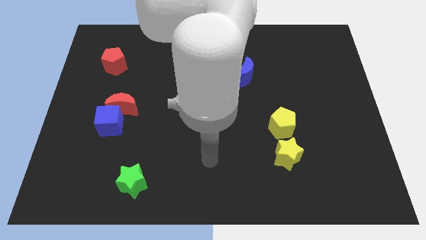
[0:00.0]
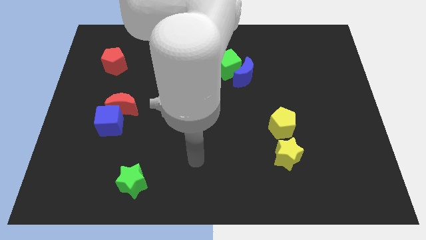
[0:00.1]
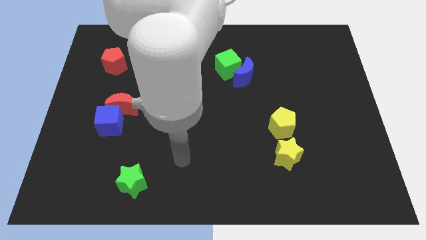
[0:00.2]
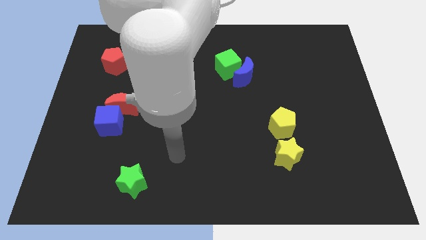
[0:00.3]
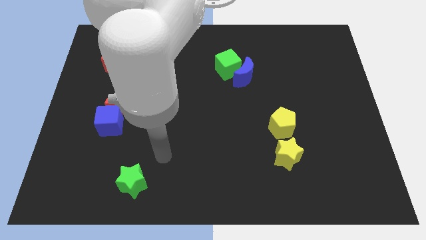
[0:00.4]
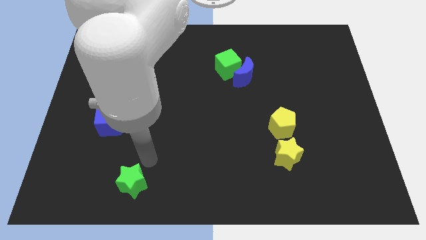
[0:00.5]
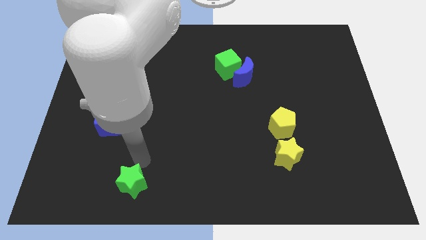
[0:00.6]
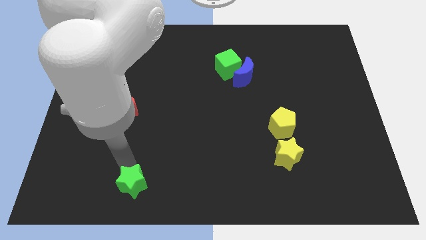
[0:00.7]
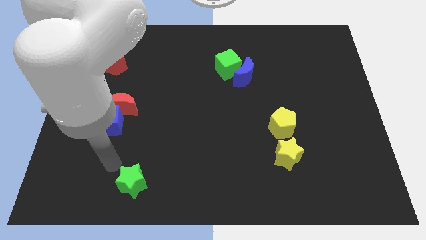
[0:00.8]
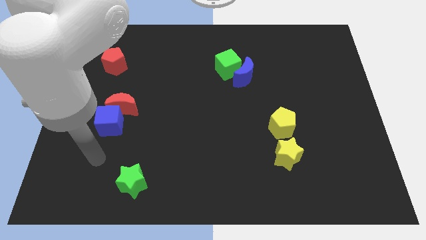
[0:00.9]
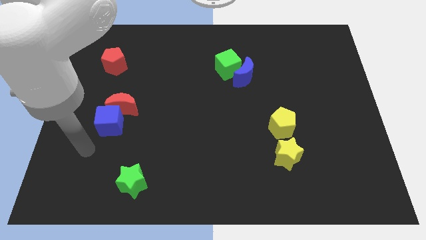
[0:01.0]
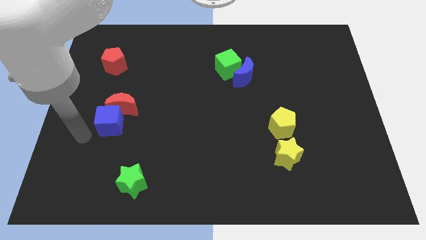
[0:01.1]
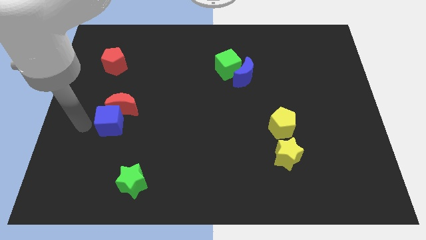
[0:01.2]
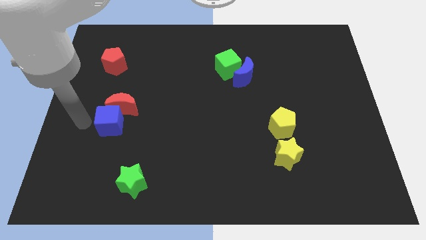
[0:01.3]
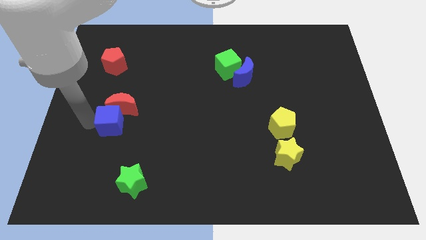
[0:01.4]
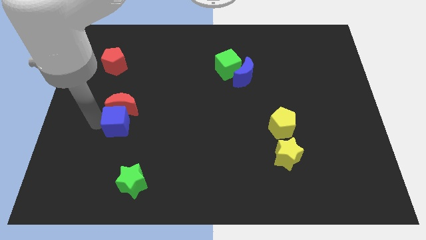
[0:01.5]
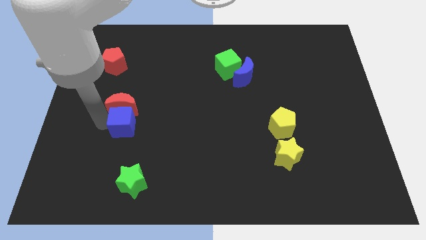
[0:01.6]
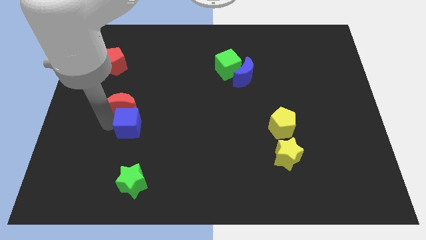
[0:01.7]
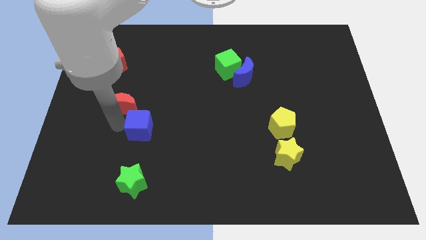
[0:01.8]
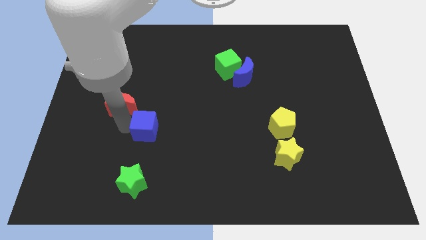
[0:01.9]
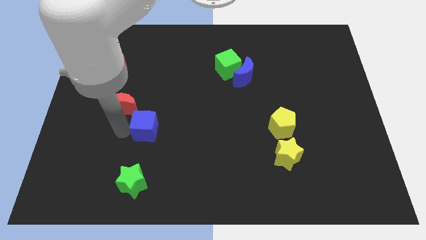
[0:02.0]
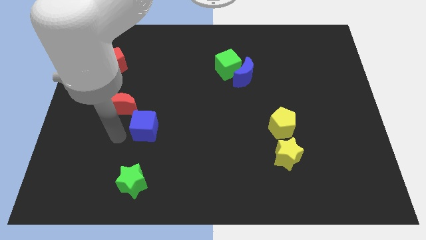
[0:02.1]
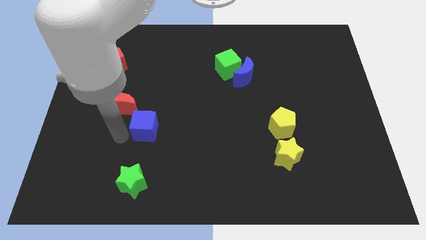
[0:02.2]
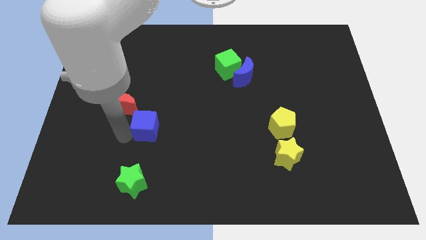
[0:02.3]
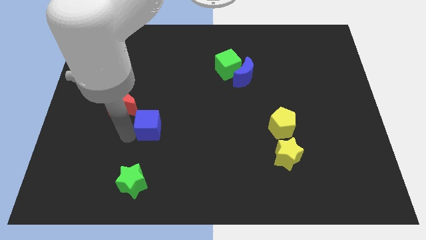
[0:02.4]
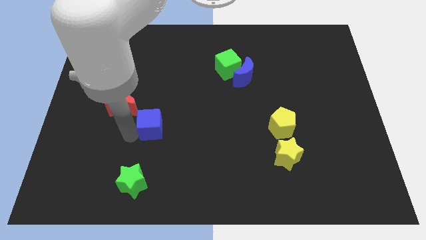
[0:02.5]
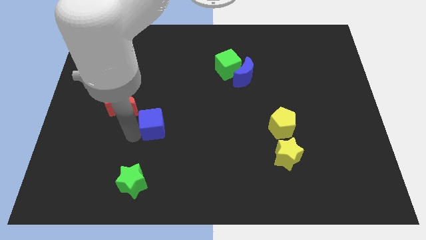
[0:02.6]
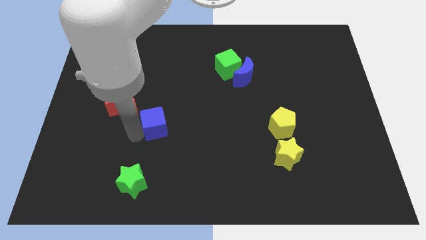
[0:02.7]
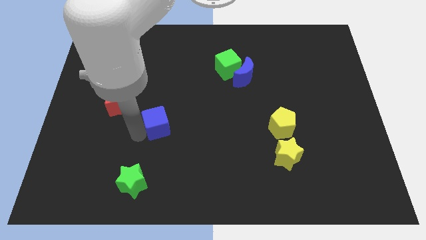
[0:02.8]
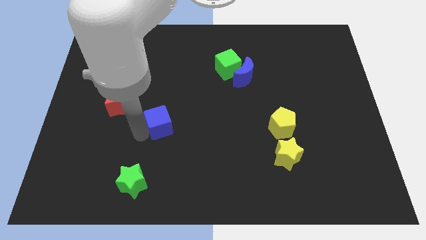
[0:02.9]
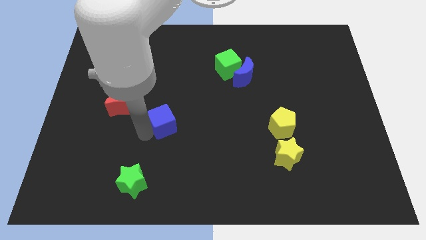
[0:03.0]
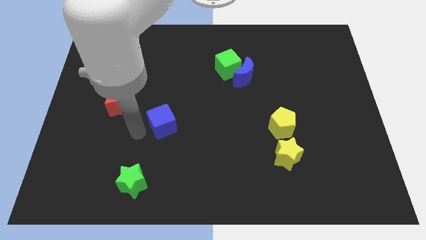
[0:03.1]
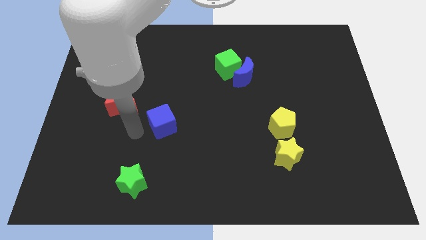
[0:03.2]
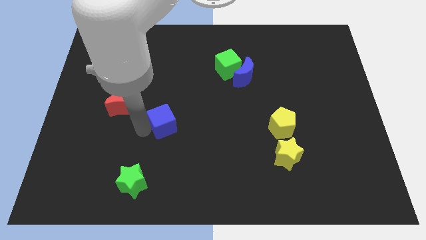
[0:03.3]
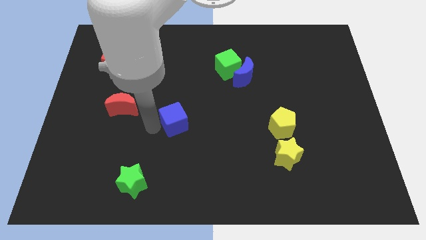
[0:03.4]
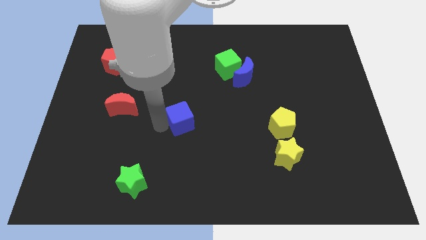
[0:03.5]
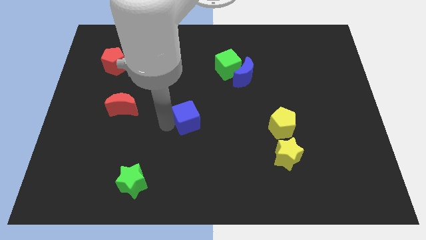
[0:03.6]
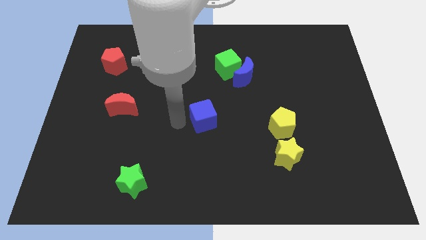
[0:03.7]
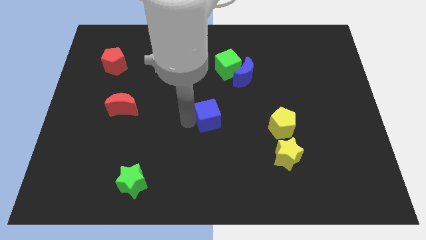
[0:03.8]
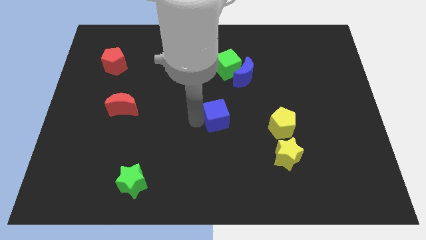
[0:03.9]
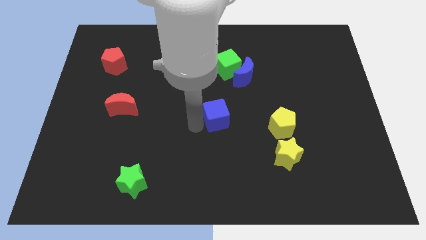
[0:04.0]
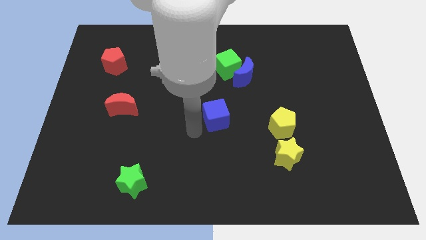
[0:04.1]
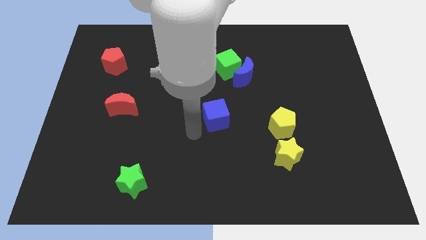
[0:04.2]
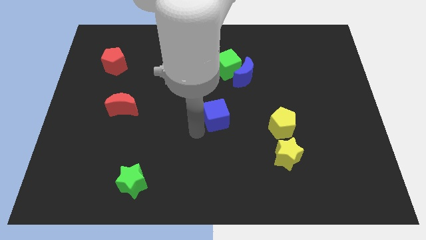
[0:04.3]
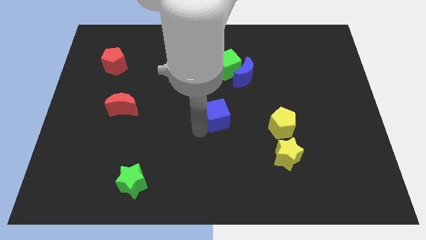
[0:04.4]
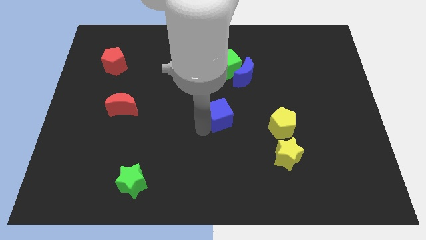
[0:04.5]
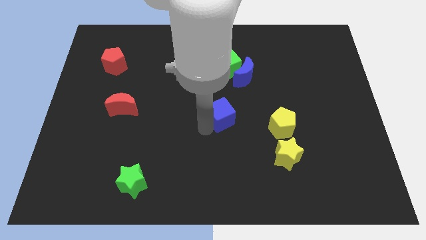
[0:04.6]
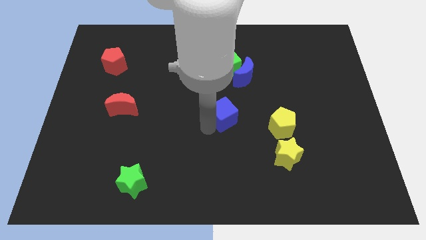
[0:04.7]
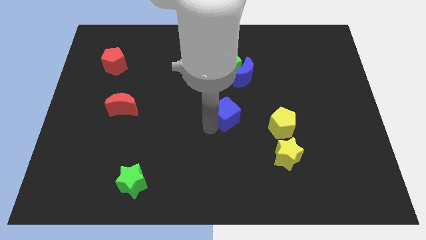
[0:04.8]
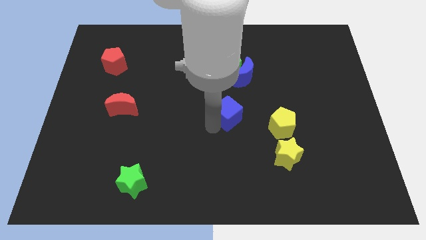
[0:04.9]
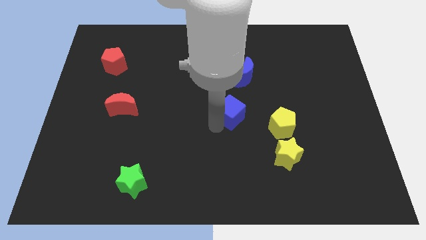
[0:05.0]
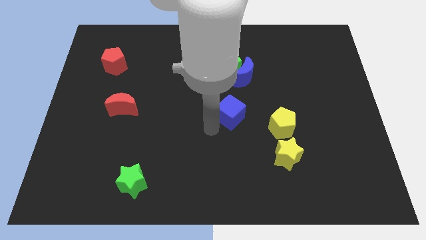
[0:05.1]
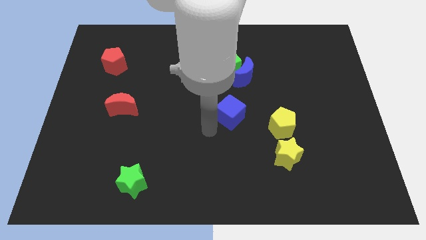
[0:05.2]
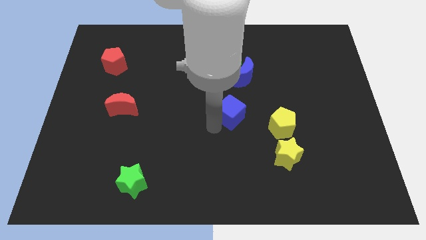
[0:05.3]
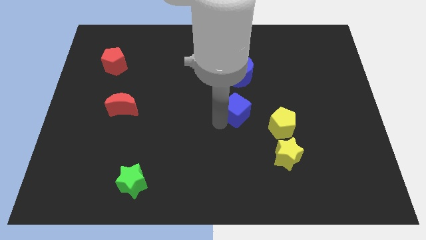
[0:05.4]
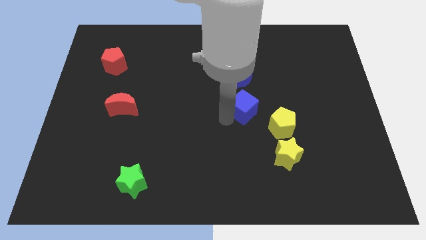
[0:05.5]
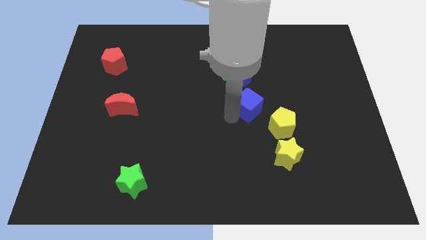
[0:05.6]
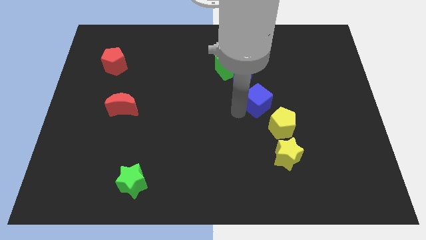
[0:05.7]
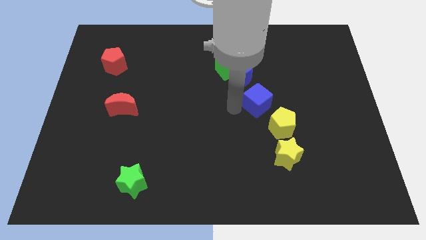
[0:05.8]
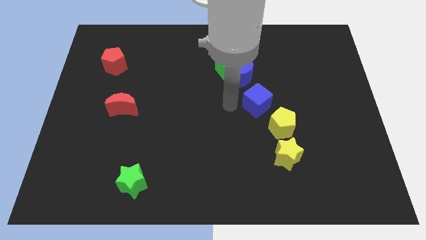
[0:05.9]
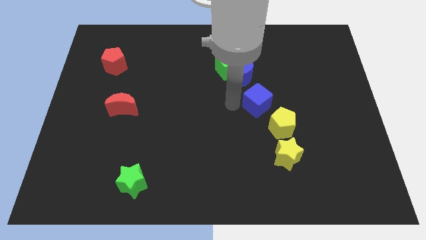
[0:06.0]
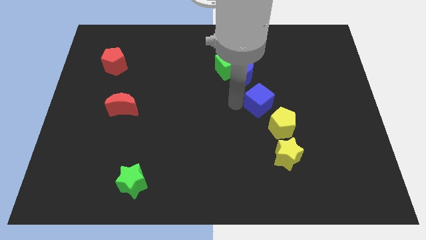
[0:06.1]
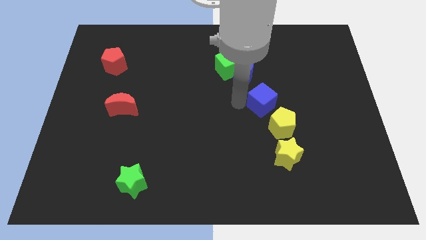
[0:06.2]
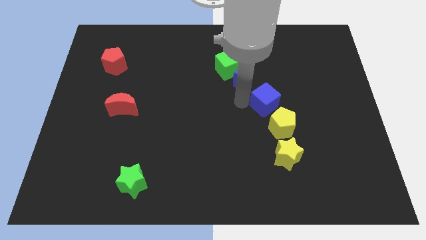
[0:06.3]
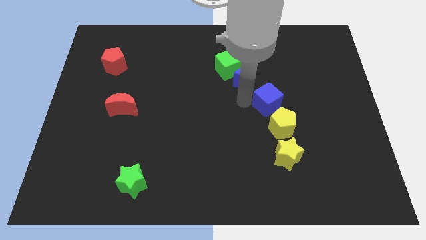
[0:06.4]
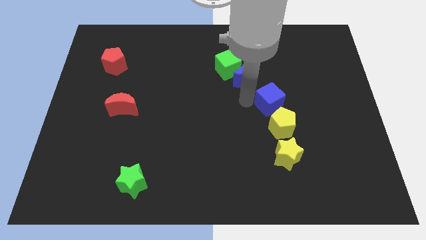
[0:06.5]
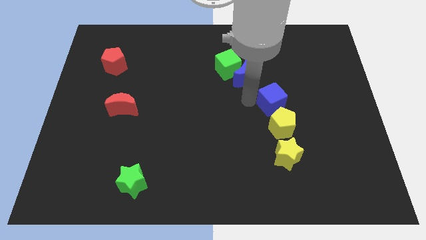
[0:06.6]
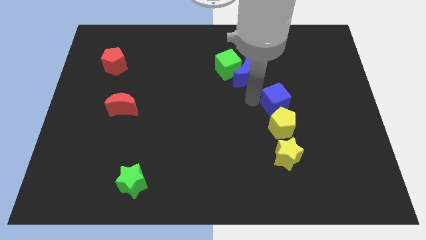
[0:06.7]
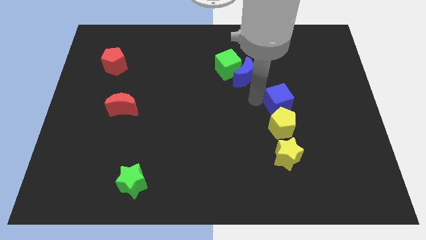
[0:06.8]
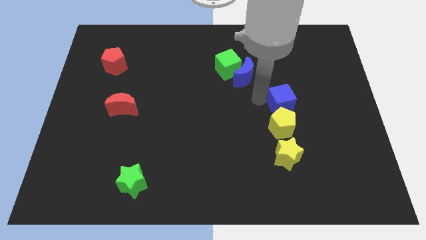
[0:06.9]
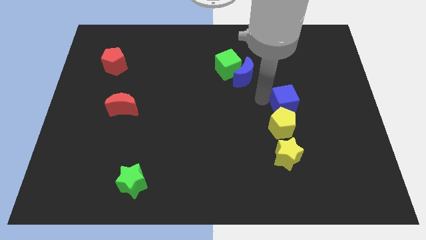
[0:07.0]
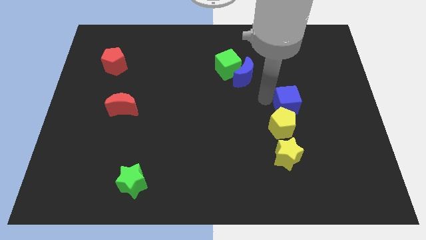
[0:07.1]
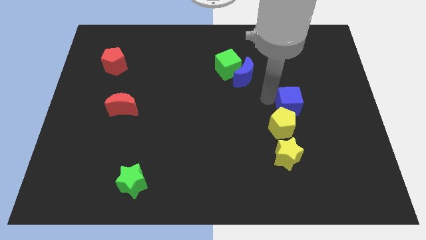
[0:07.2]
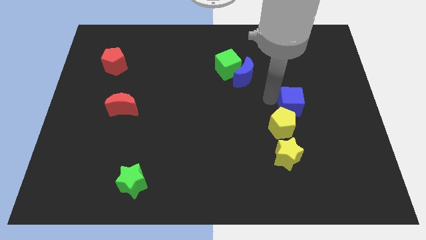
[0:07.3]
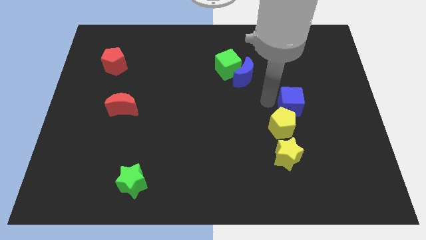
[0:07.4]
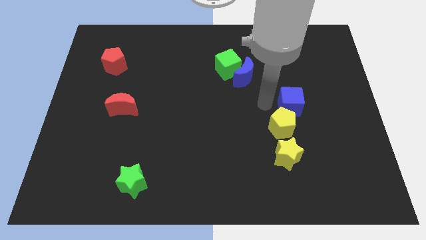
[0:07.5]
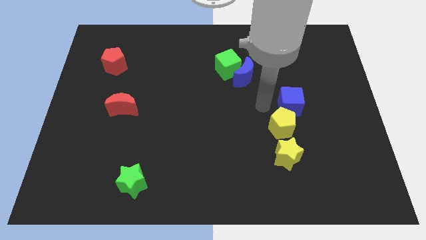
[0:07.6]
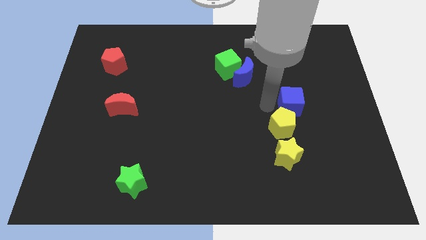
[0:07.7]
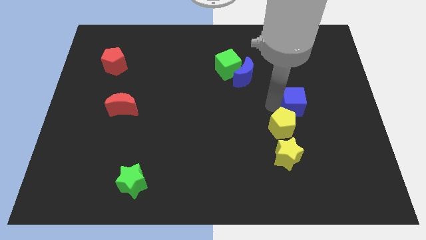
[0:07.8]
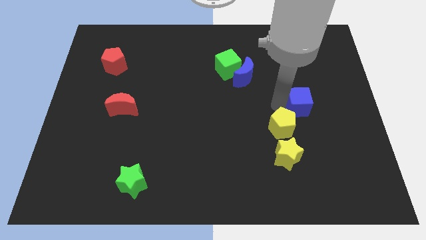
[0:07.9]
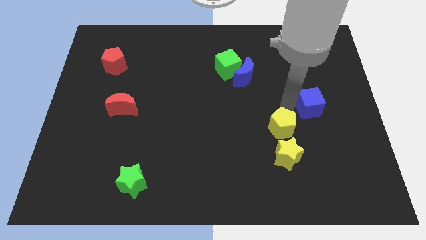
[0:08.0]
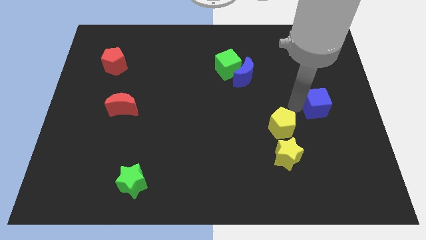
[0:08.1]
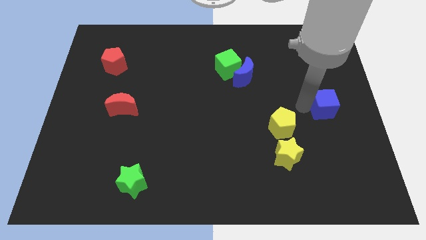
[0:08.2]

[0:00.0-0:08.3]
push the blue cube to the center right
